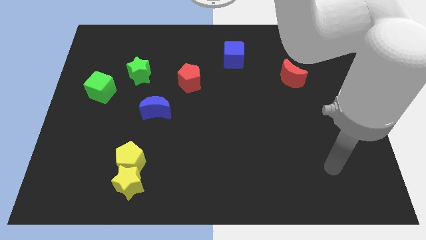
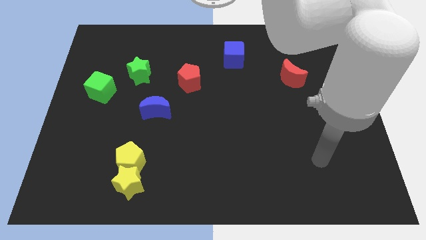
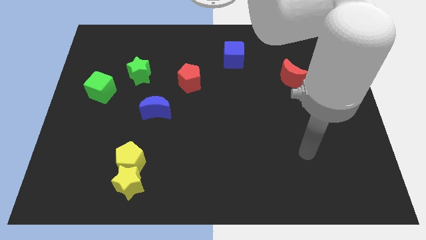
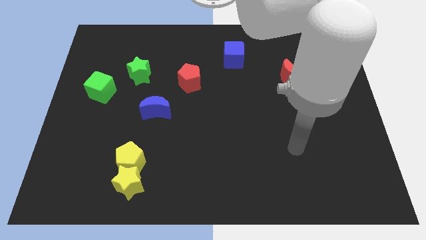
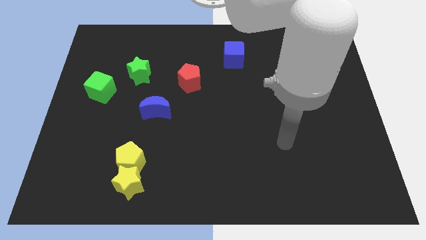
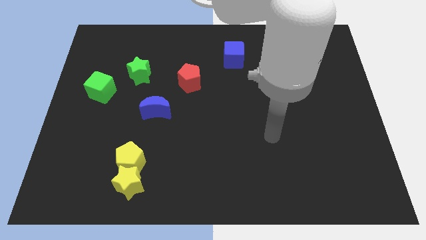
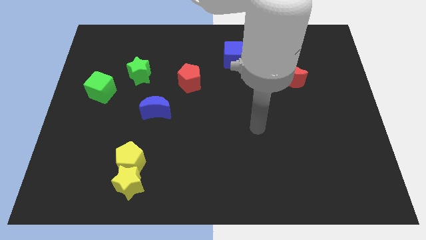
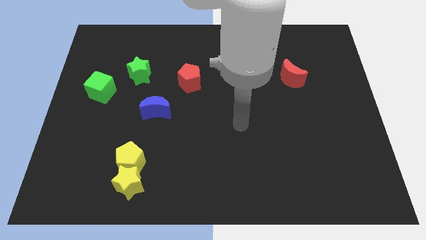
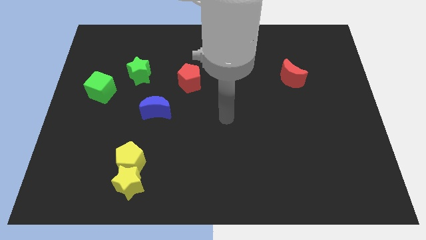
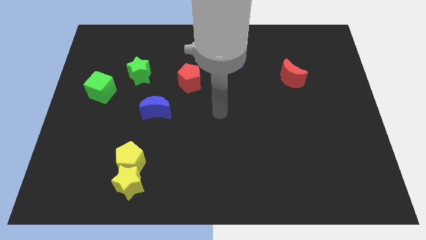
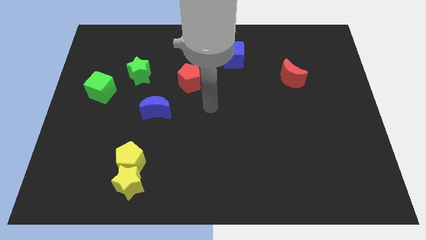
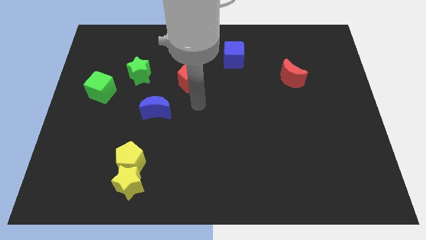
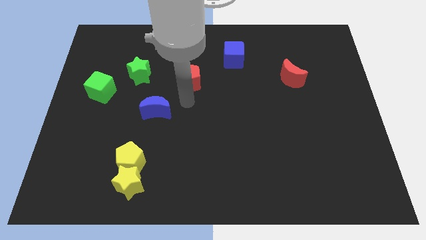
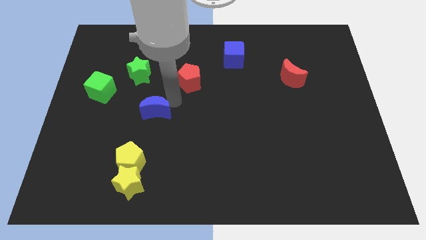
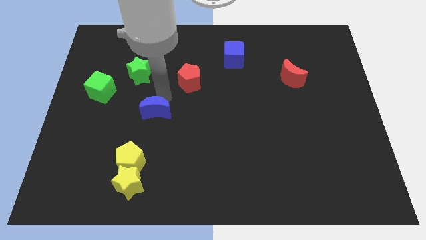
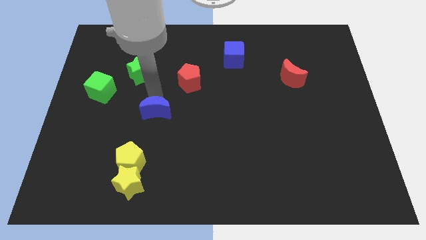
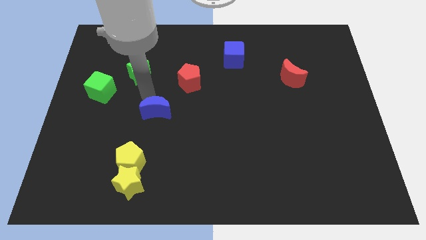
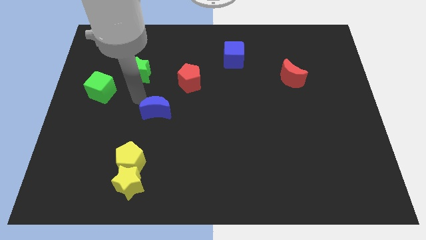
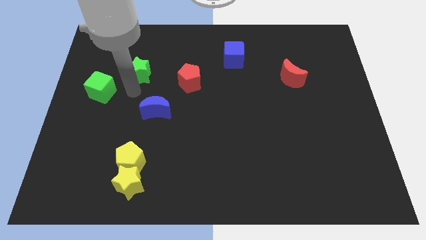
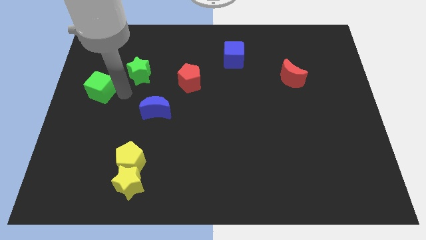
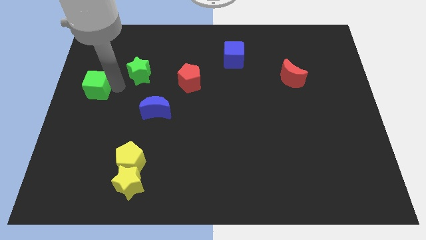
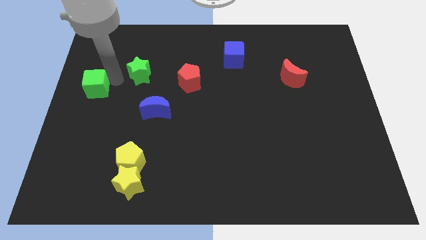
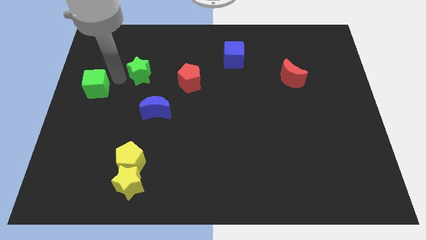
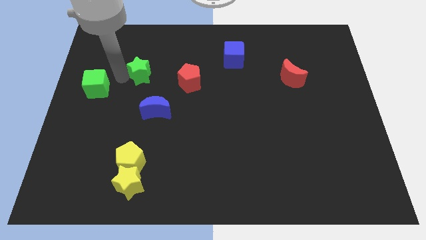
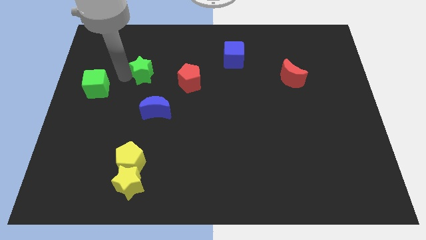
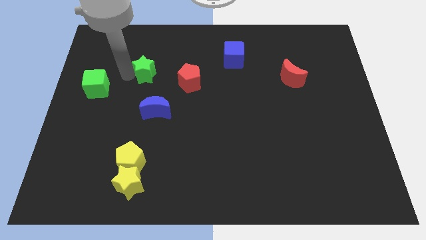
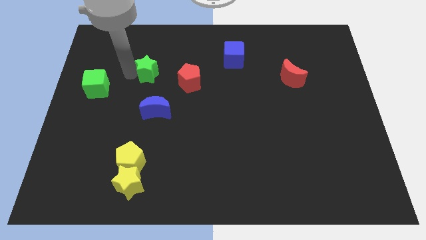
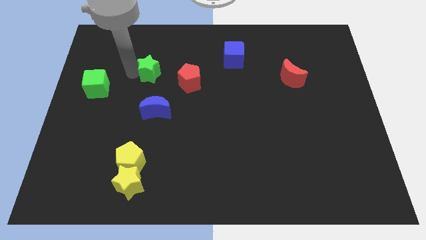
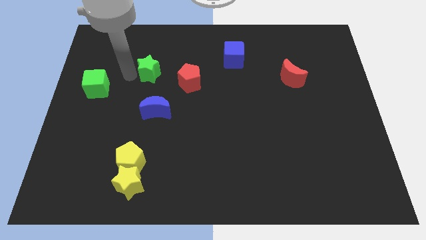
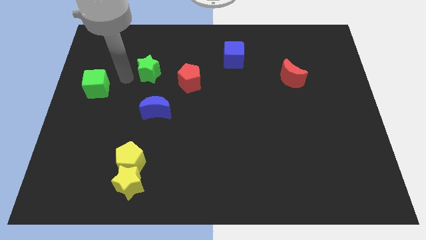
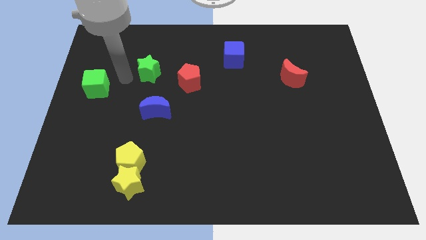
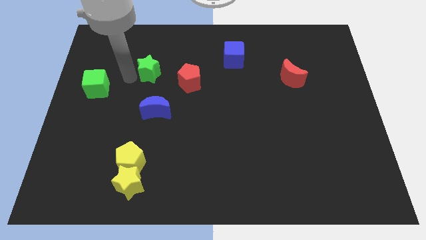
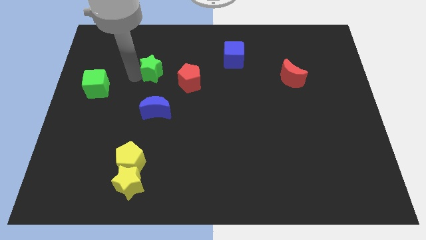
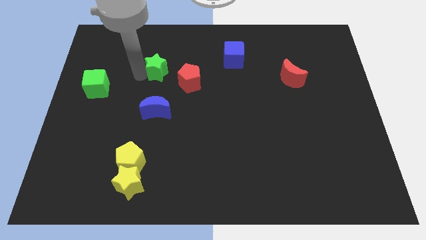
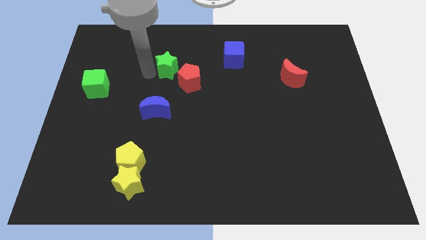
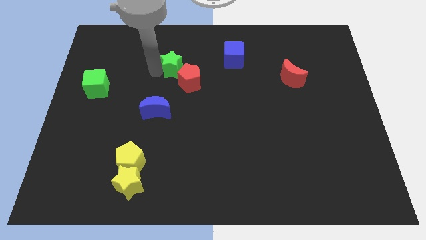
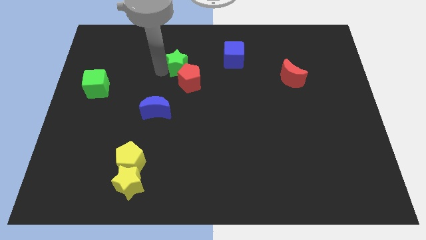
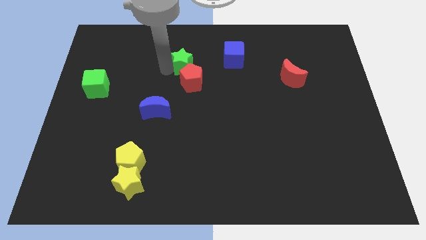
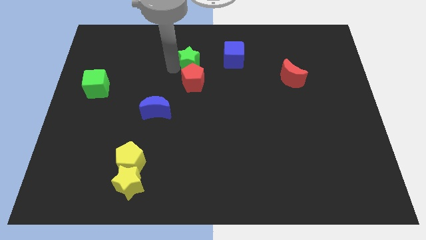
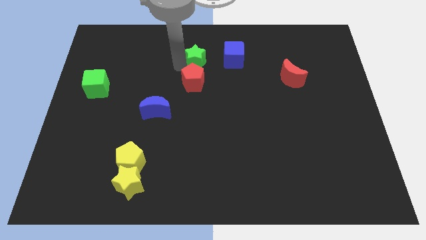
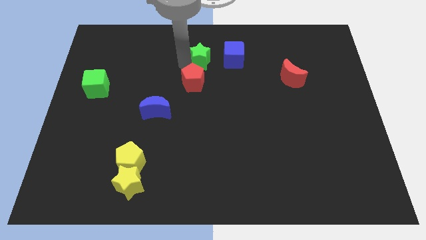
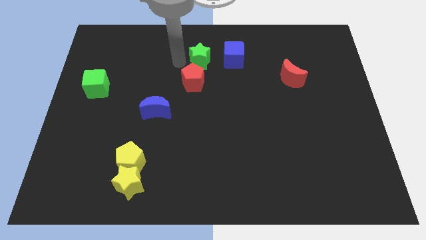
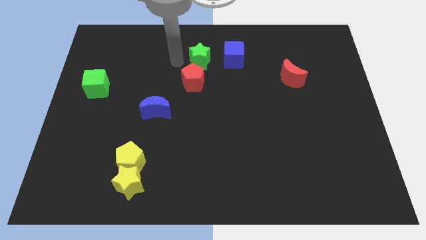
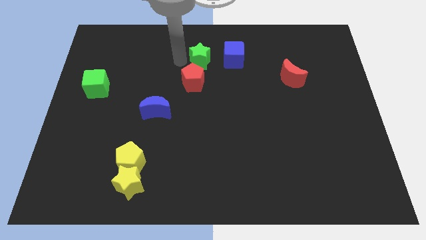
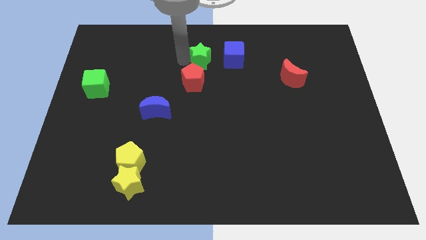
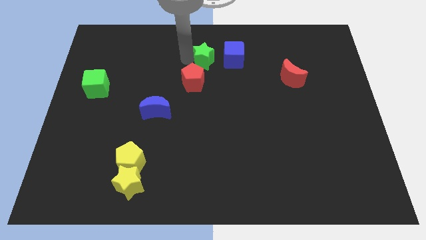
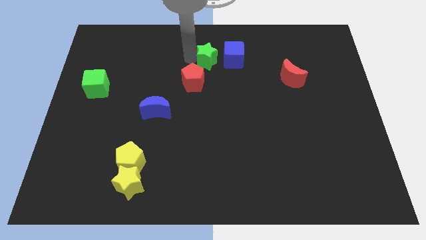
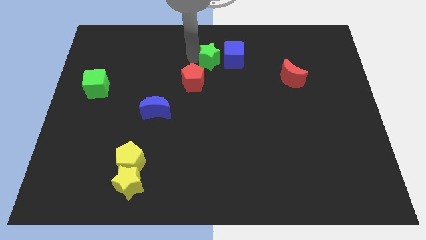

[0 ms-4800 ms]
move the green star to the blue cube

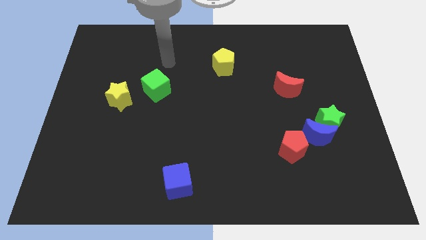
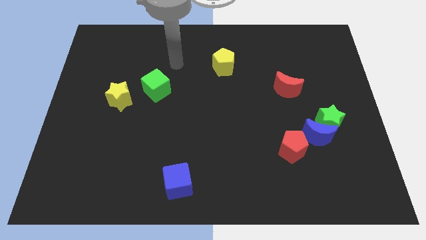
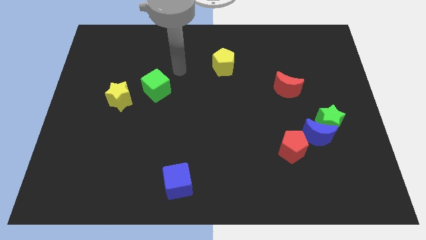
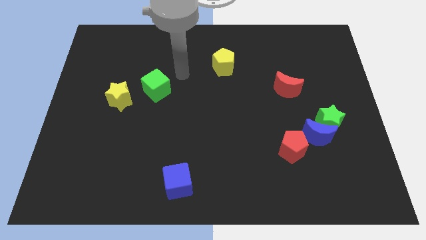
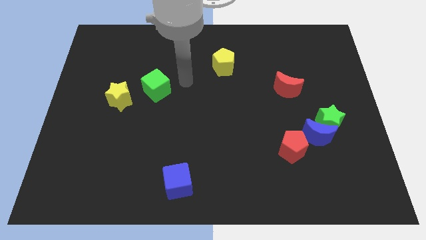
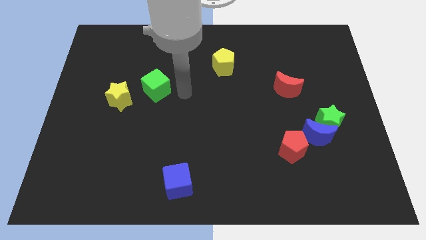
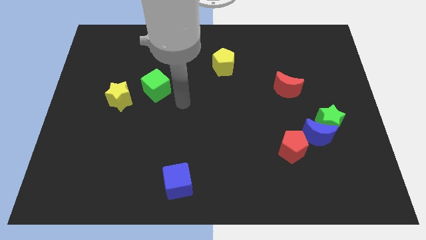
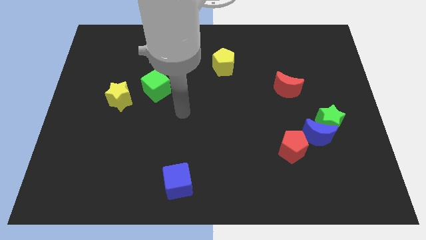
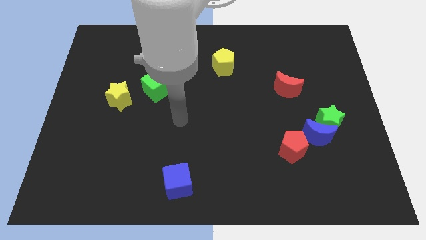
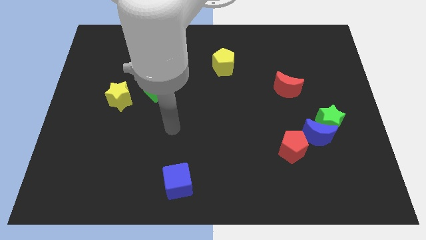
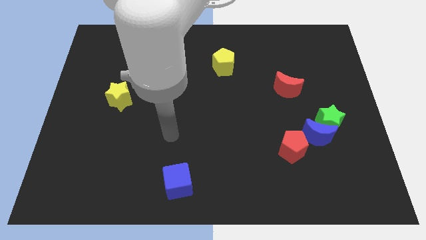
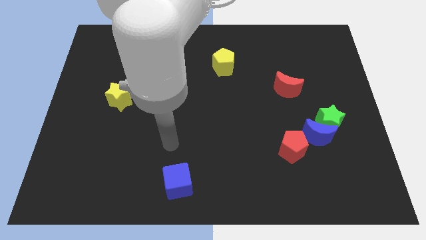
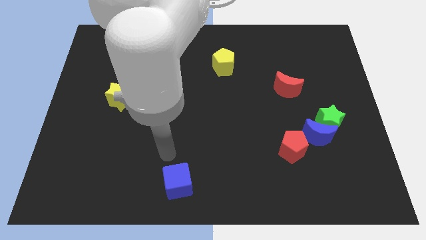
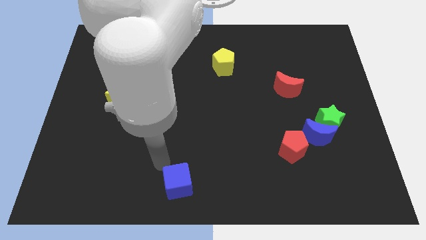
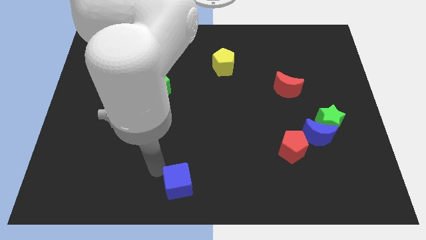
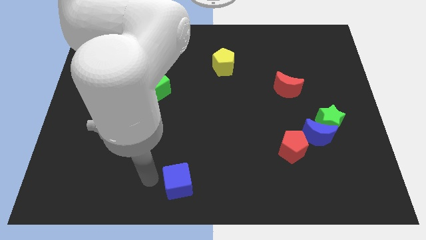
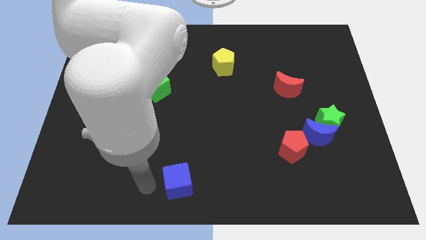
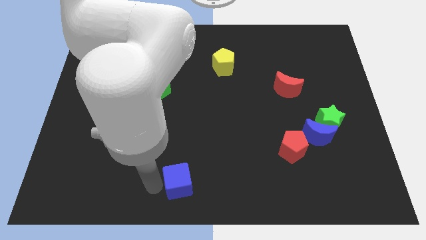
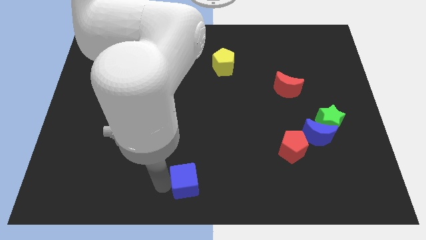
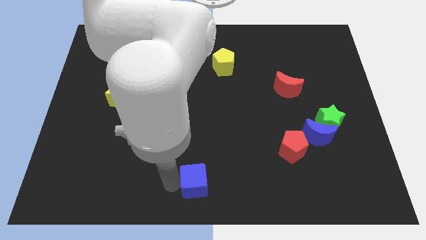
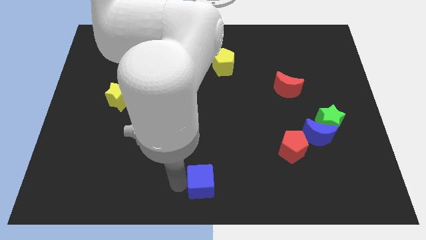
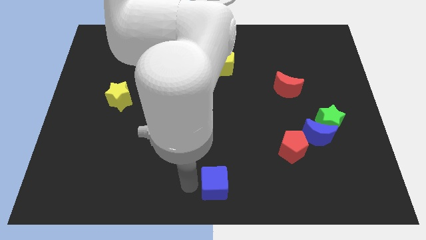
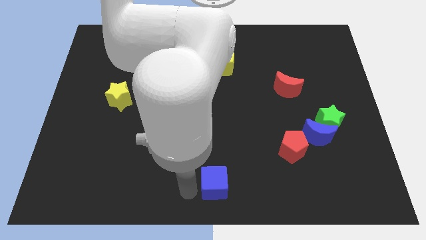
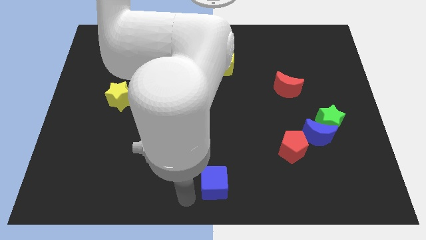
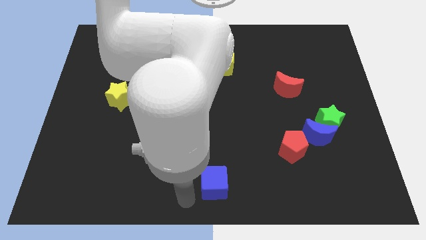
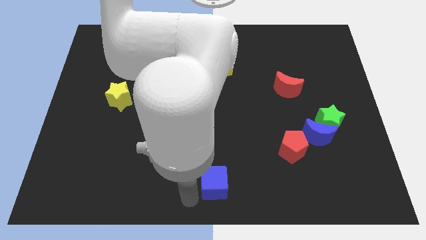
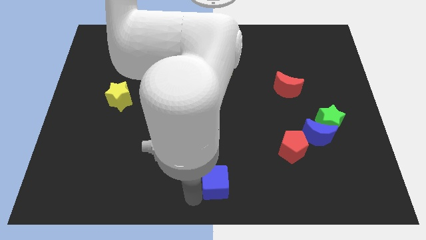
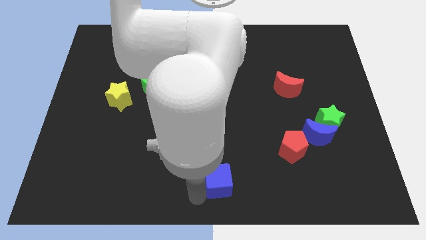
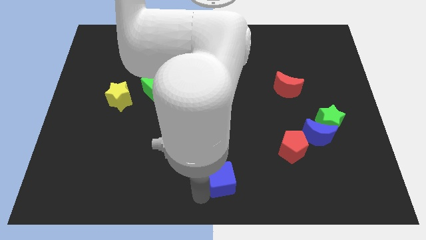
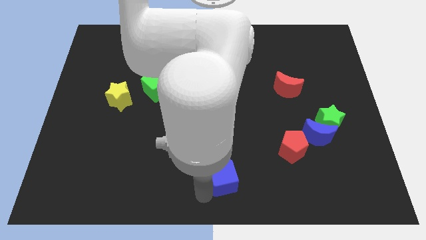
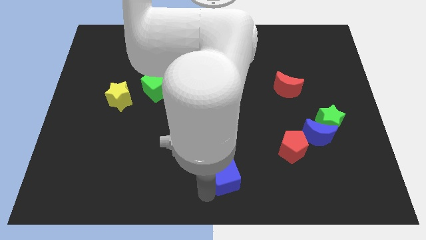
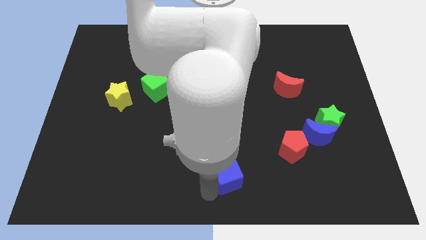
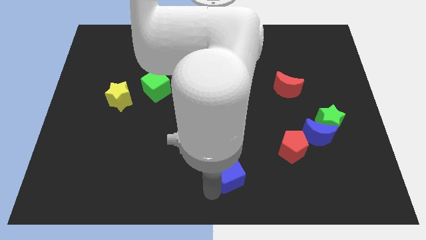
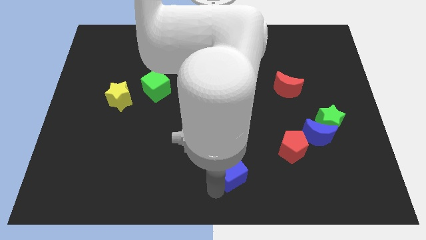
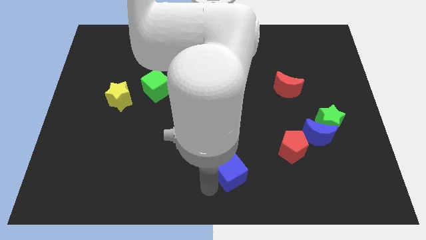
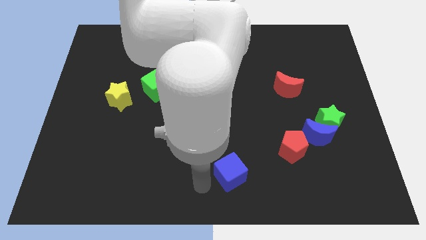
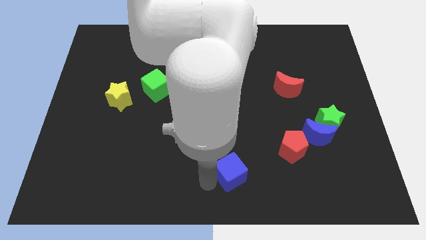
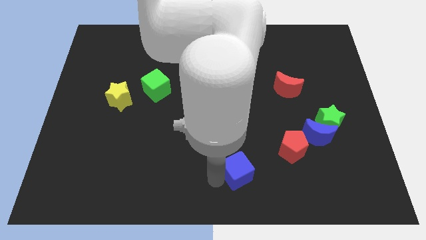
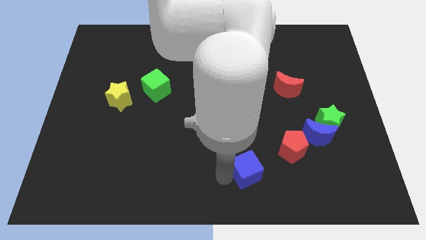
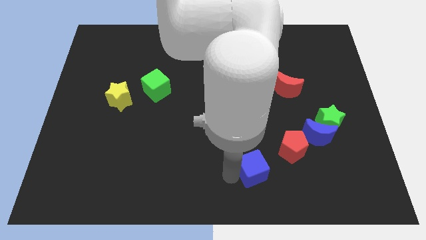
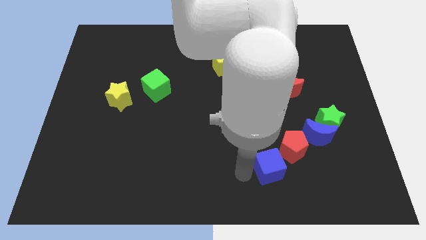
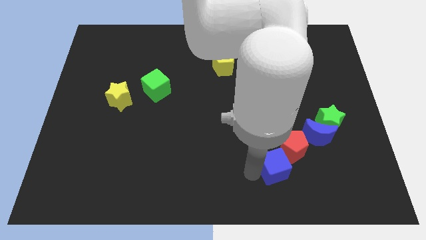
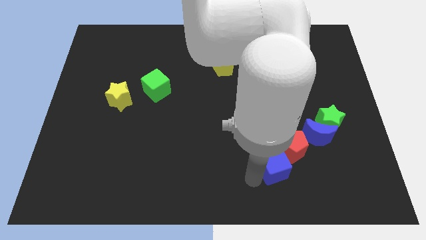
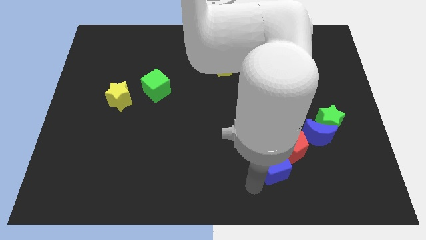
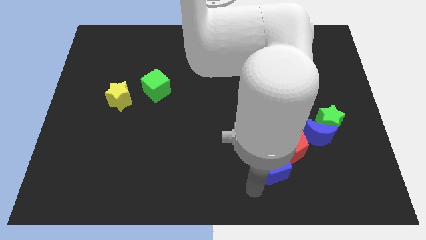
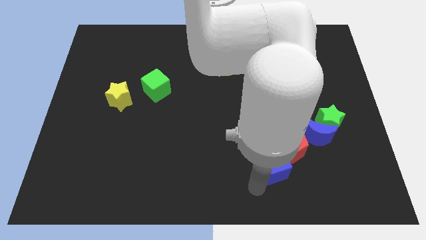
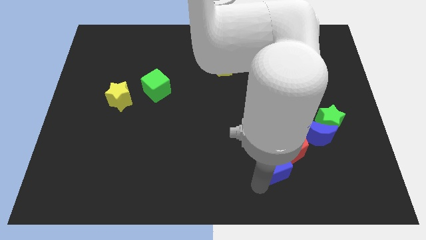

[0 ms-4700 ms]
push the blue cube to the red pentagon
